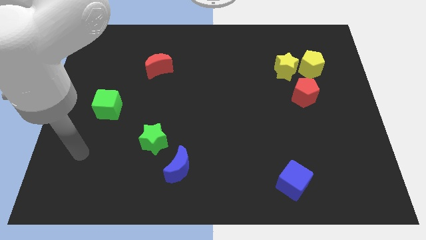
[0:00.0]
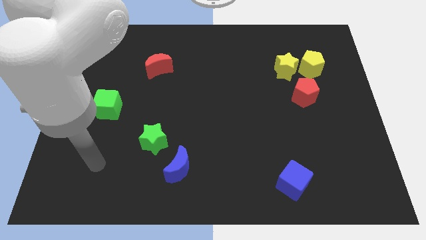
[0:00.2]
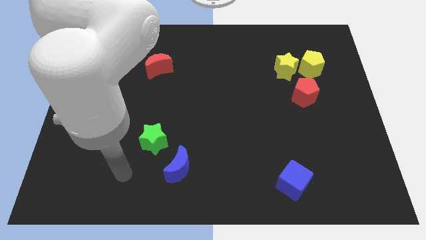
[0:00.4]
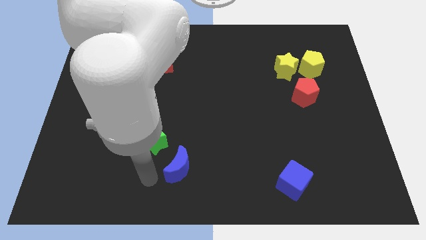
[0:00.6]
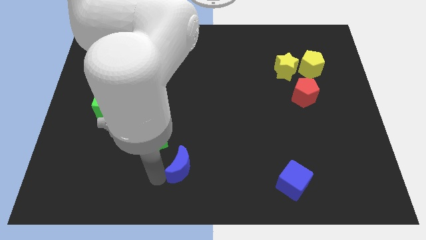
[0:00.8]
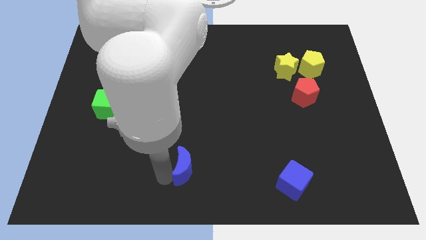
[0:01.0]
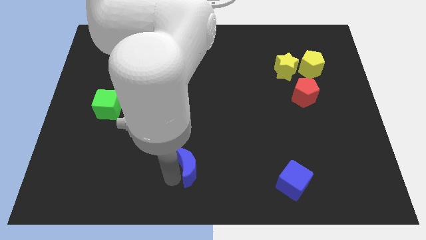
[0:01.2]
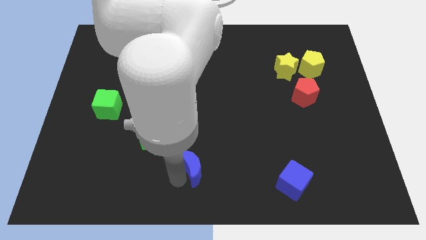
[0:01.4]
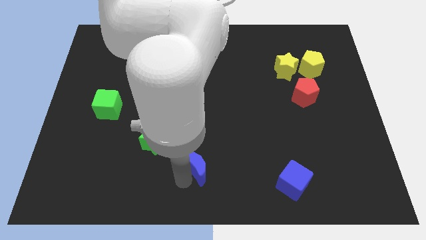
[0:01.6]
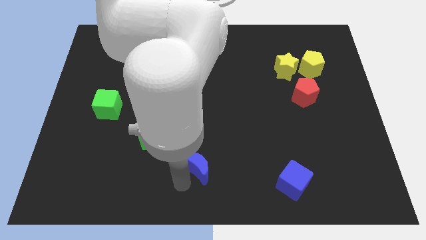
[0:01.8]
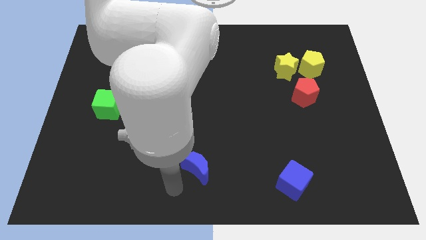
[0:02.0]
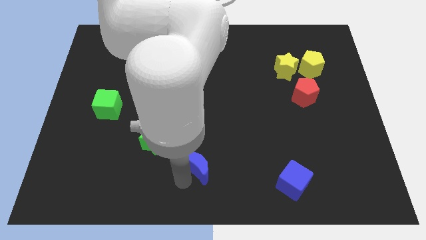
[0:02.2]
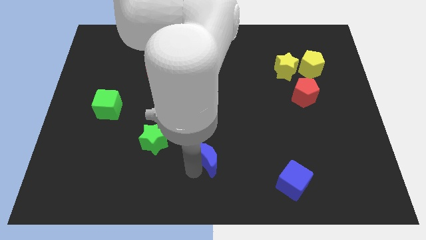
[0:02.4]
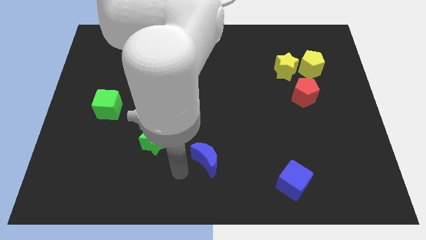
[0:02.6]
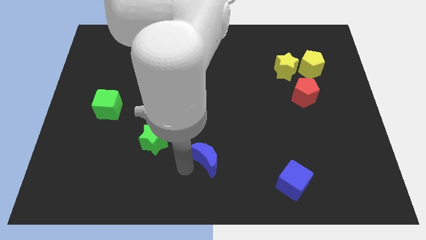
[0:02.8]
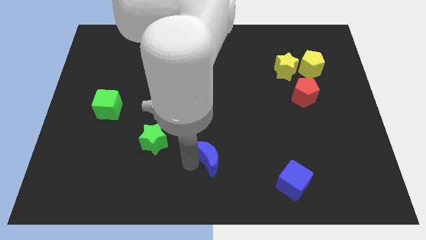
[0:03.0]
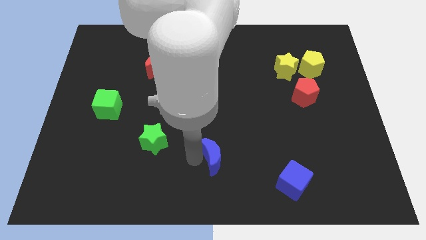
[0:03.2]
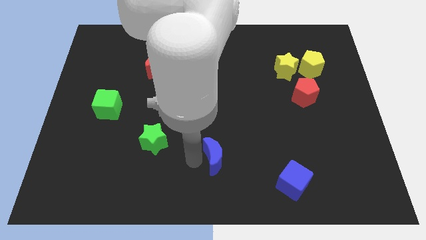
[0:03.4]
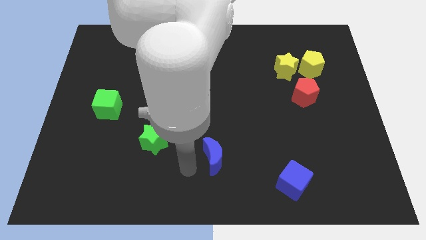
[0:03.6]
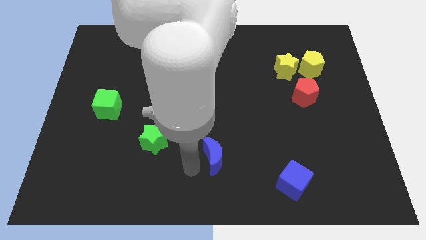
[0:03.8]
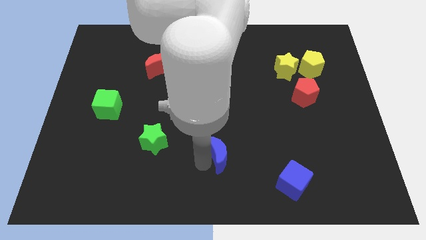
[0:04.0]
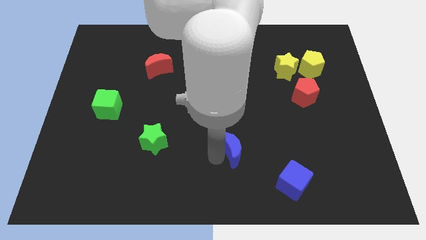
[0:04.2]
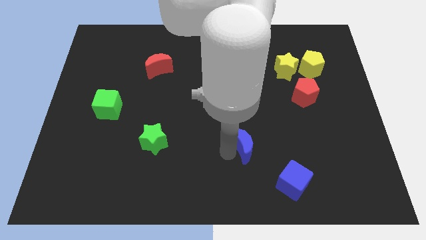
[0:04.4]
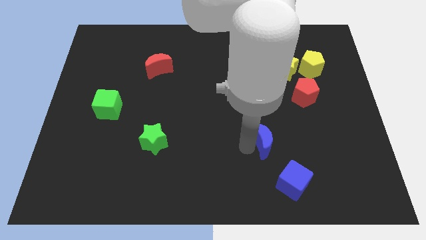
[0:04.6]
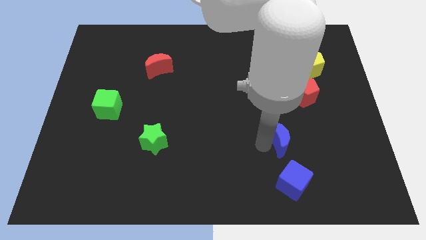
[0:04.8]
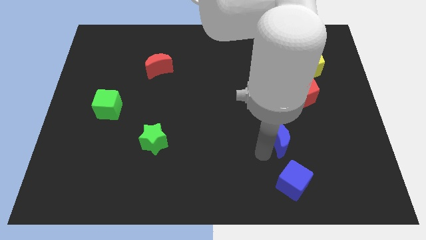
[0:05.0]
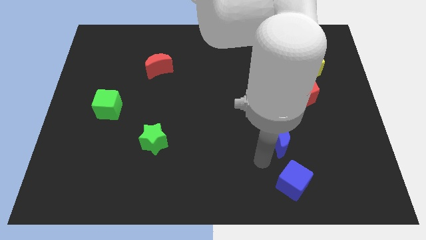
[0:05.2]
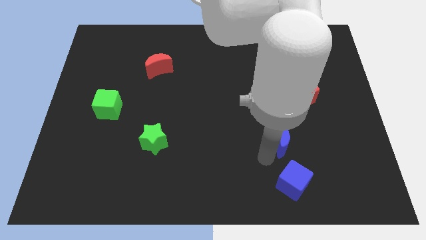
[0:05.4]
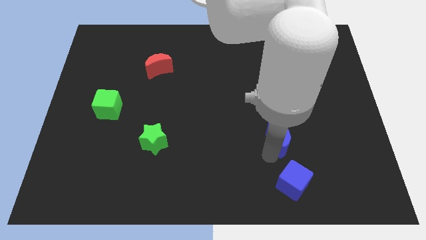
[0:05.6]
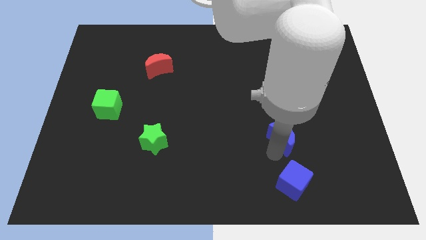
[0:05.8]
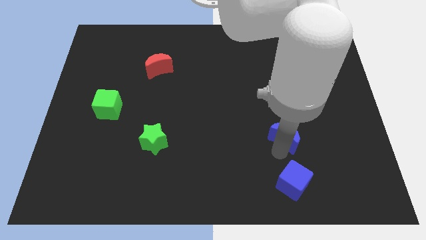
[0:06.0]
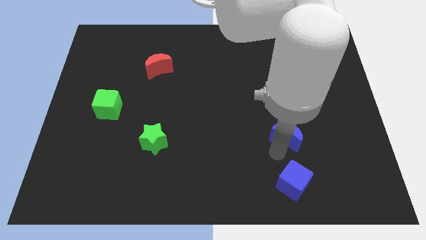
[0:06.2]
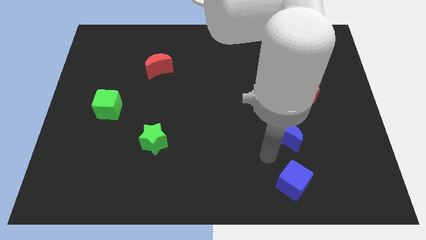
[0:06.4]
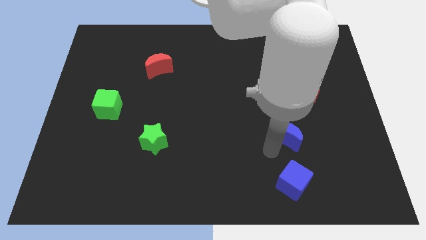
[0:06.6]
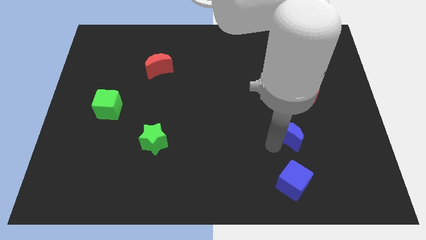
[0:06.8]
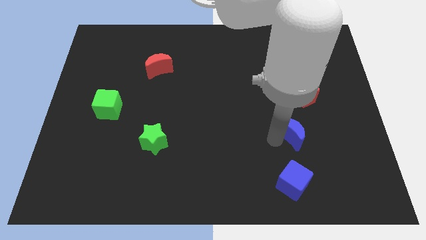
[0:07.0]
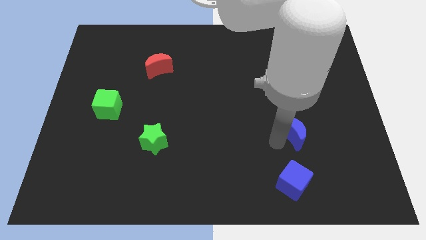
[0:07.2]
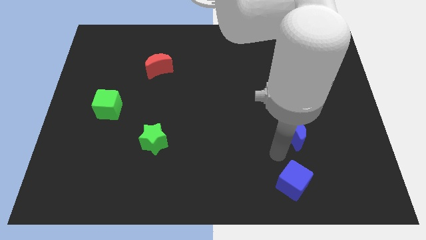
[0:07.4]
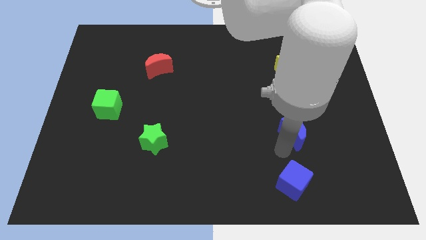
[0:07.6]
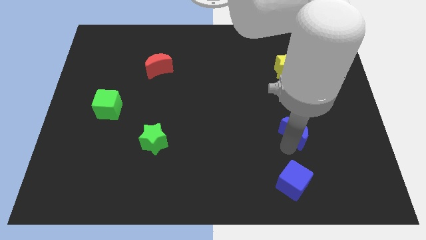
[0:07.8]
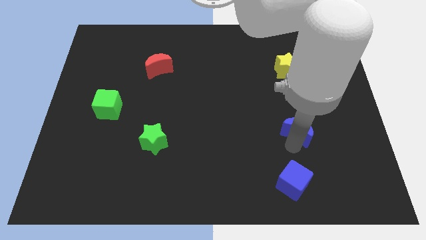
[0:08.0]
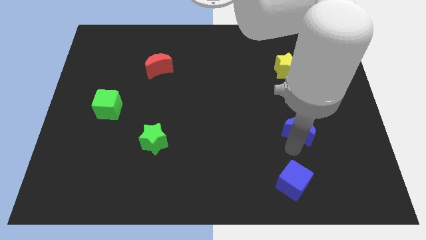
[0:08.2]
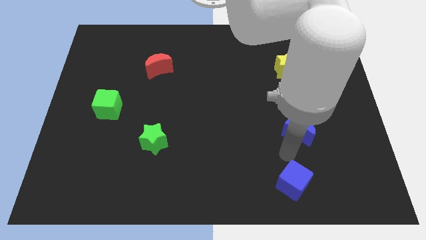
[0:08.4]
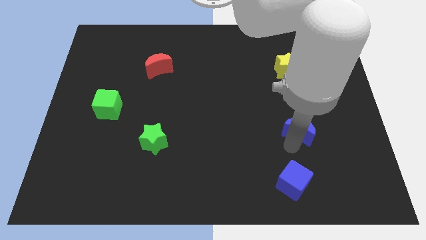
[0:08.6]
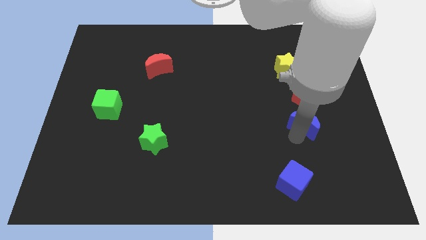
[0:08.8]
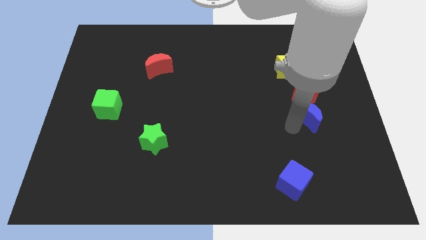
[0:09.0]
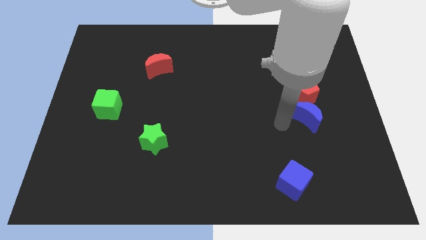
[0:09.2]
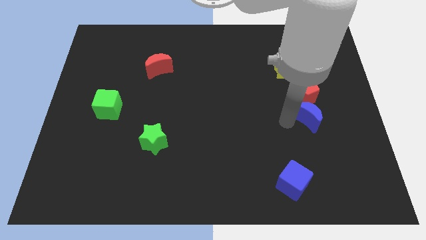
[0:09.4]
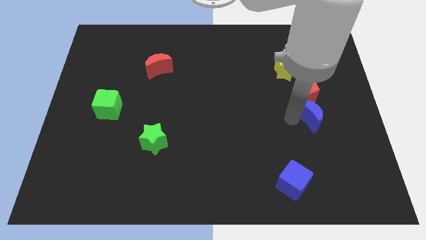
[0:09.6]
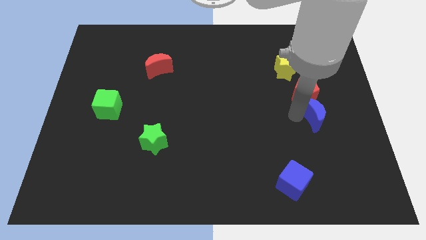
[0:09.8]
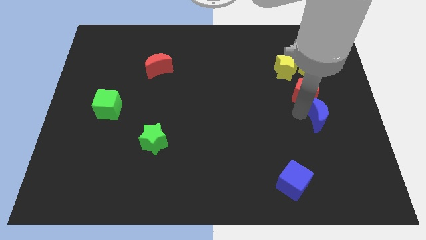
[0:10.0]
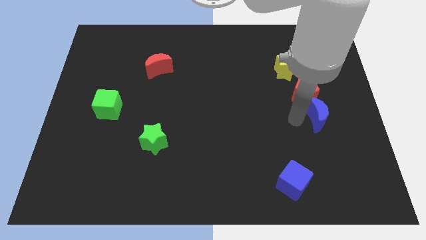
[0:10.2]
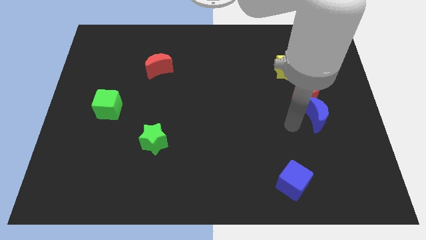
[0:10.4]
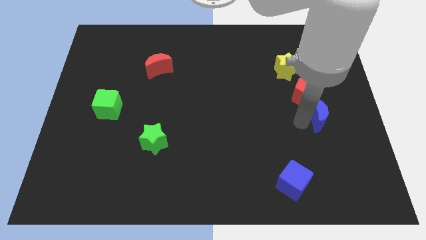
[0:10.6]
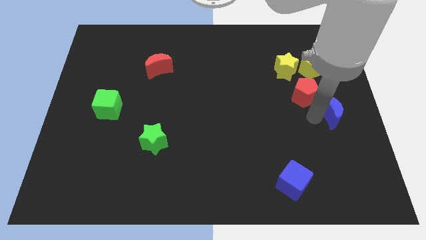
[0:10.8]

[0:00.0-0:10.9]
move the blue moon to the center right

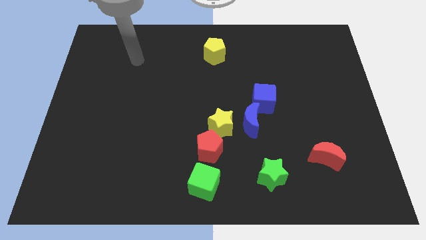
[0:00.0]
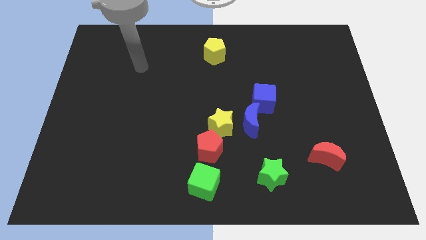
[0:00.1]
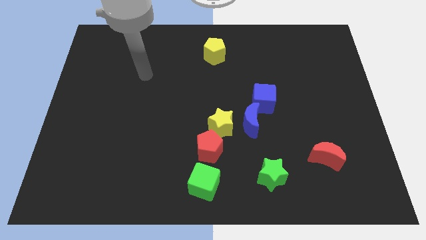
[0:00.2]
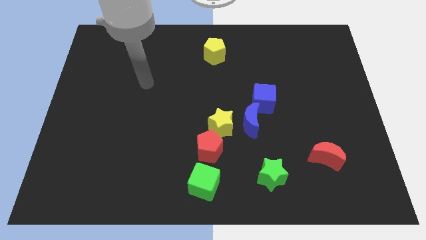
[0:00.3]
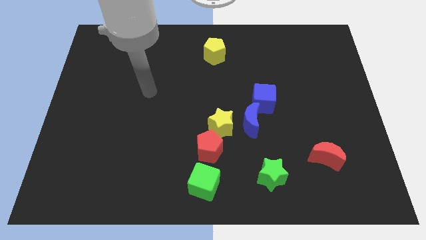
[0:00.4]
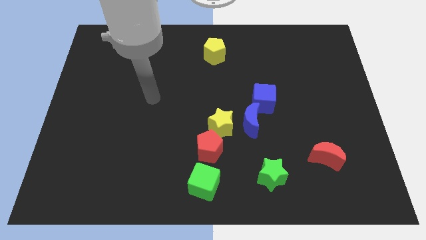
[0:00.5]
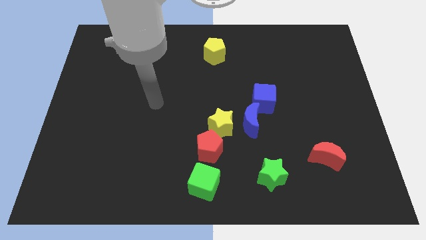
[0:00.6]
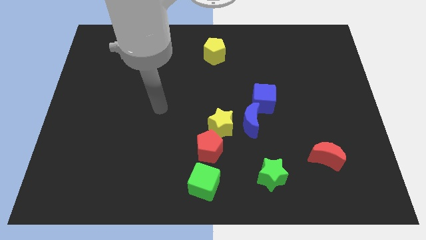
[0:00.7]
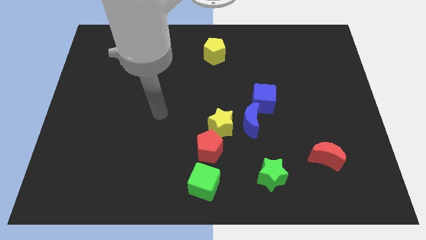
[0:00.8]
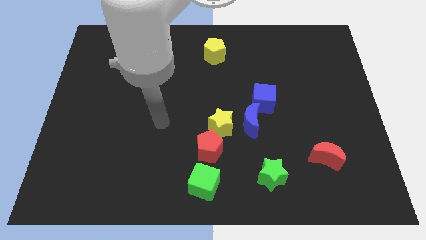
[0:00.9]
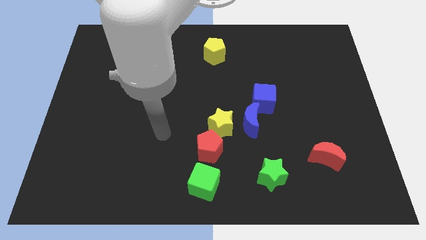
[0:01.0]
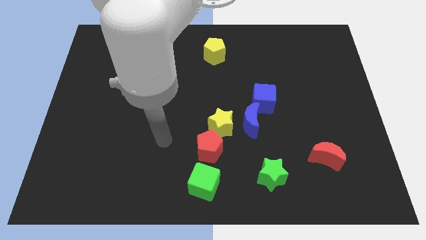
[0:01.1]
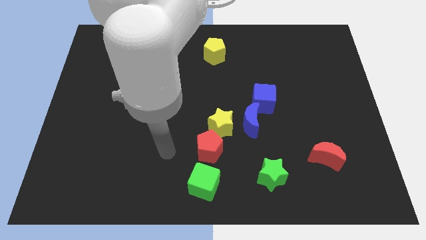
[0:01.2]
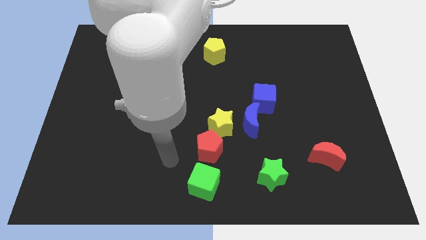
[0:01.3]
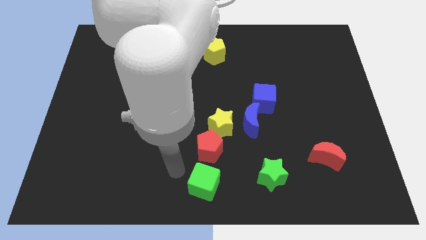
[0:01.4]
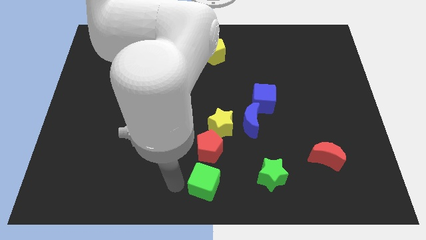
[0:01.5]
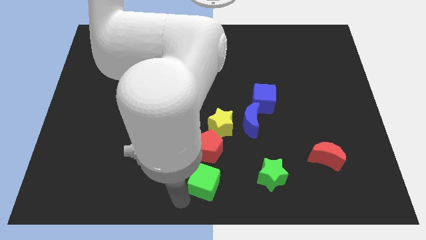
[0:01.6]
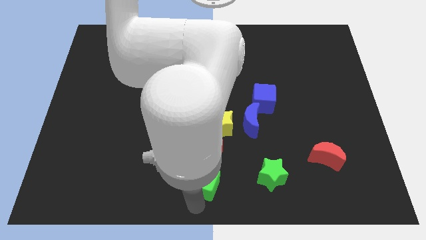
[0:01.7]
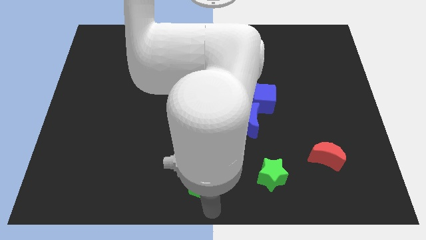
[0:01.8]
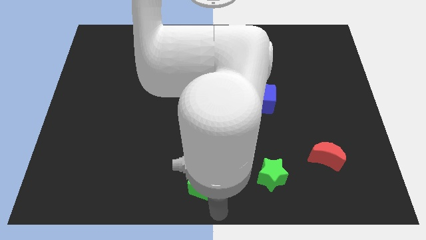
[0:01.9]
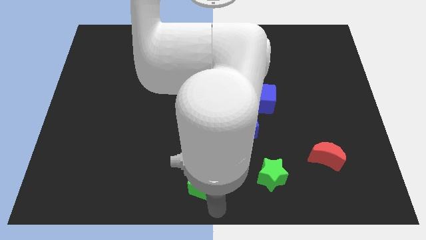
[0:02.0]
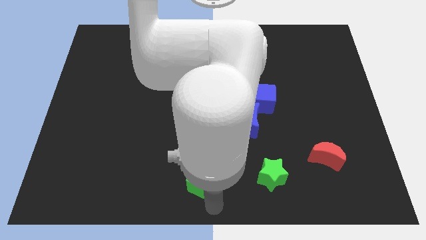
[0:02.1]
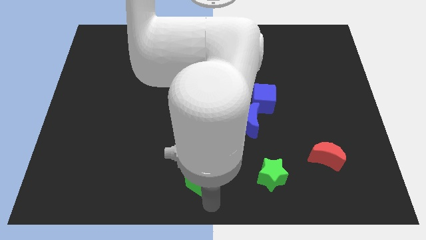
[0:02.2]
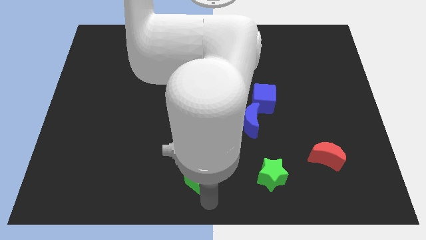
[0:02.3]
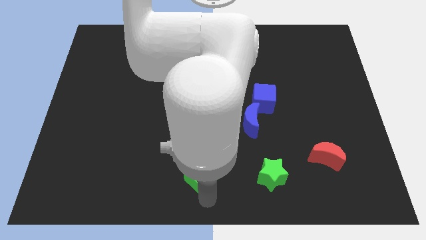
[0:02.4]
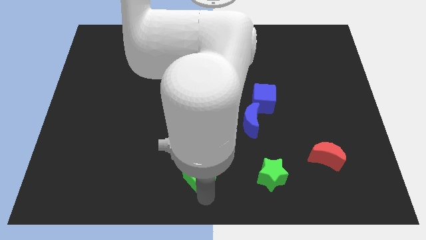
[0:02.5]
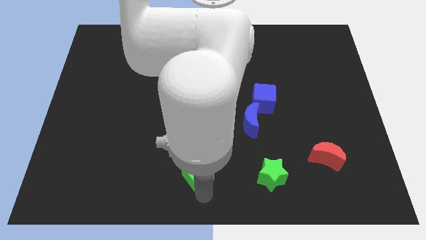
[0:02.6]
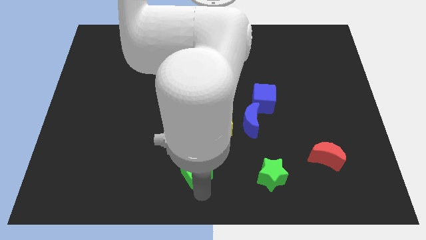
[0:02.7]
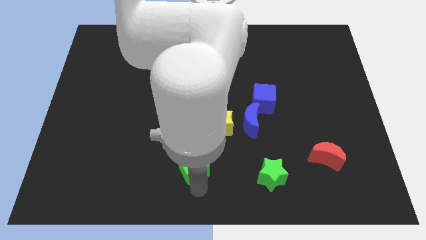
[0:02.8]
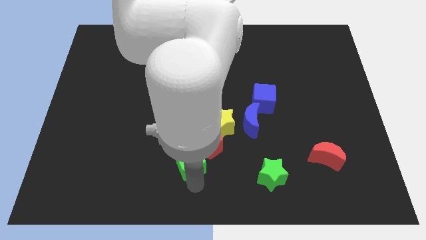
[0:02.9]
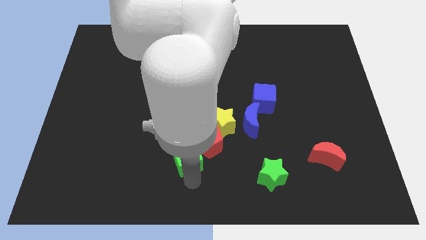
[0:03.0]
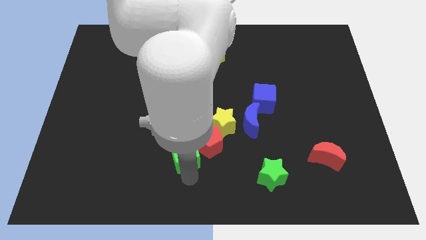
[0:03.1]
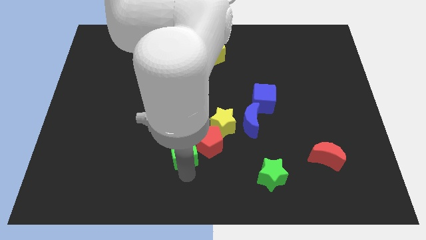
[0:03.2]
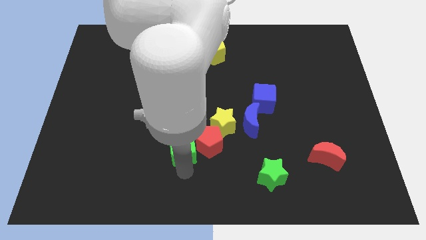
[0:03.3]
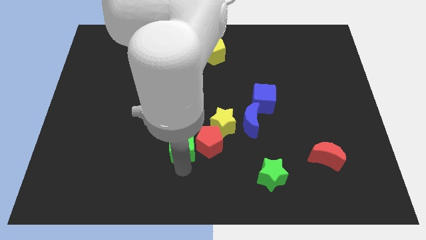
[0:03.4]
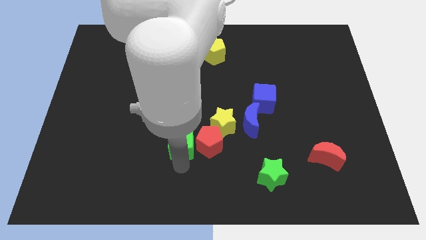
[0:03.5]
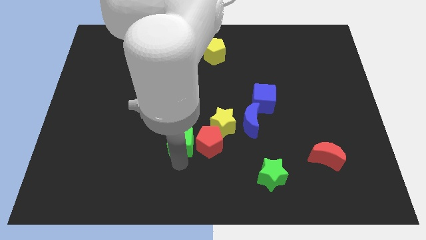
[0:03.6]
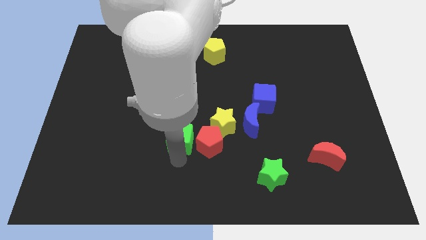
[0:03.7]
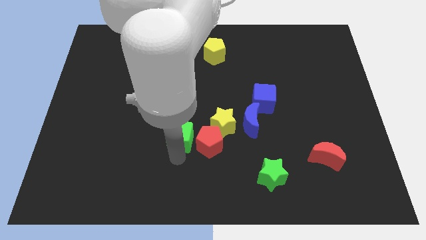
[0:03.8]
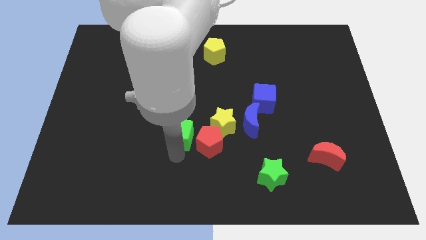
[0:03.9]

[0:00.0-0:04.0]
put the green cube to the center of the board
